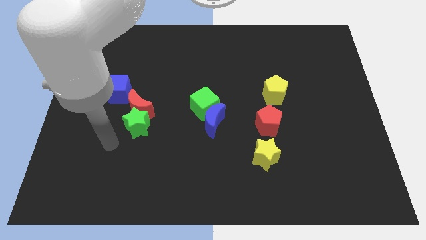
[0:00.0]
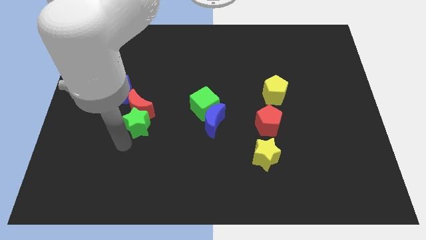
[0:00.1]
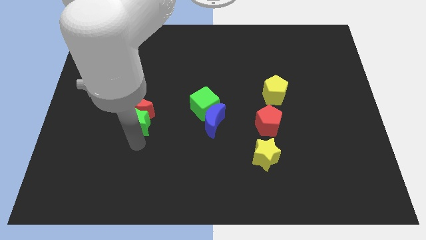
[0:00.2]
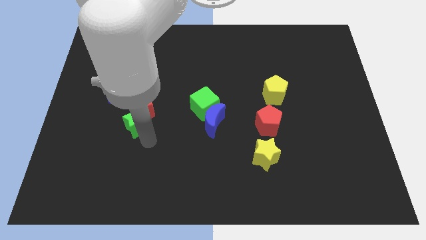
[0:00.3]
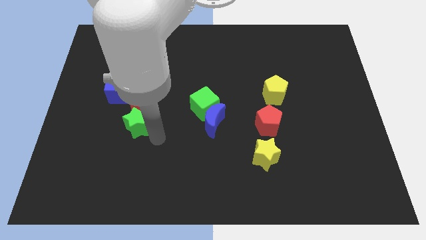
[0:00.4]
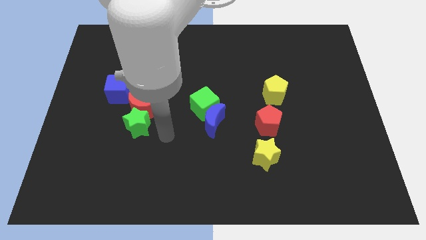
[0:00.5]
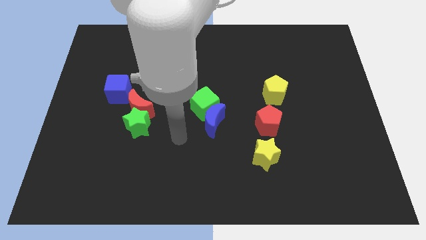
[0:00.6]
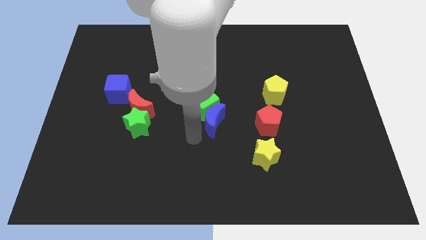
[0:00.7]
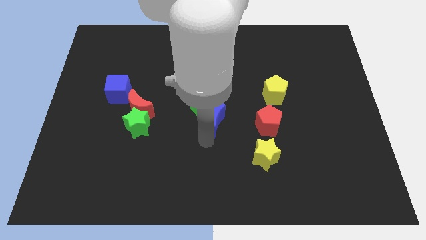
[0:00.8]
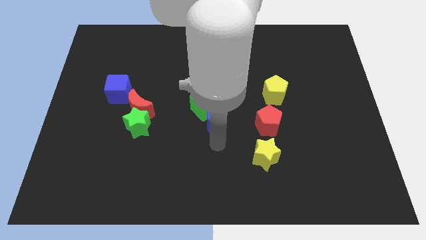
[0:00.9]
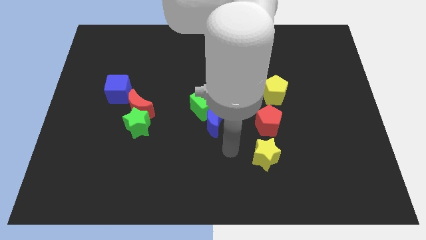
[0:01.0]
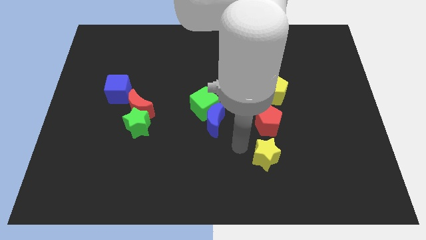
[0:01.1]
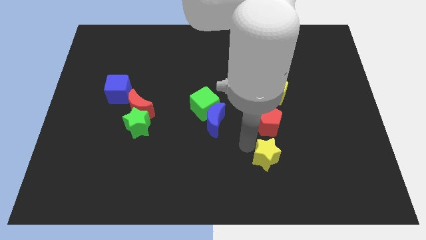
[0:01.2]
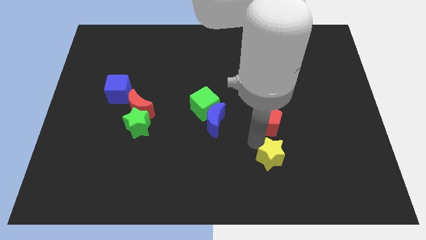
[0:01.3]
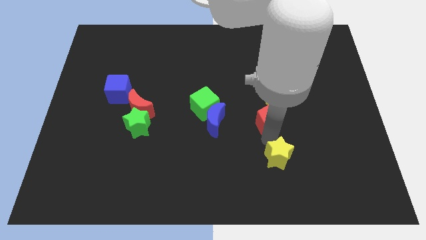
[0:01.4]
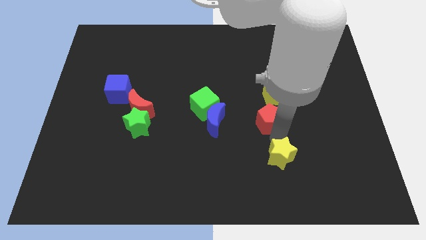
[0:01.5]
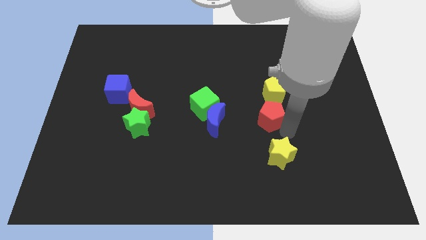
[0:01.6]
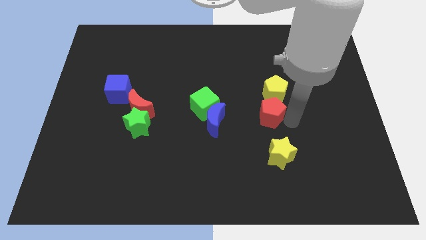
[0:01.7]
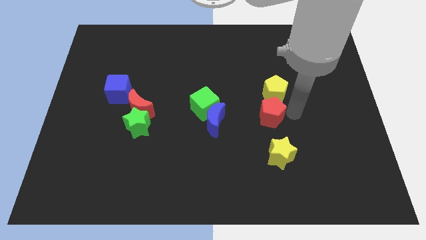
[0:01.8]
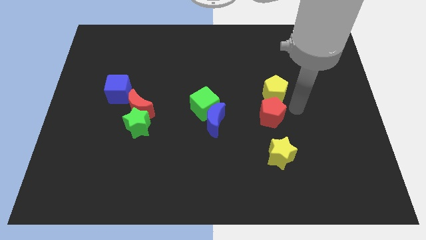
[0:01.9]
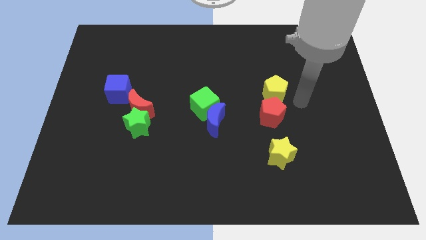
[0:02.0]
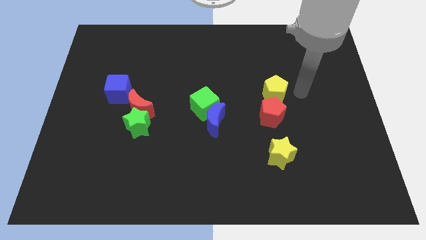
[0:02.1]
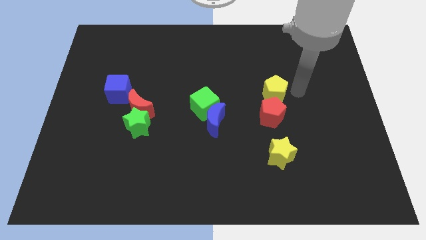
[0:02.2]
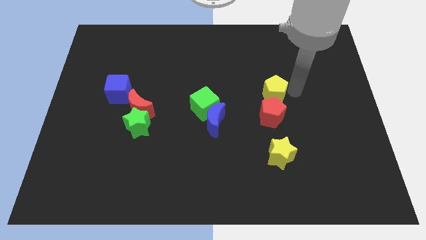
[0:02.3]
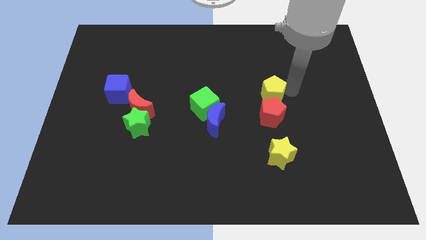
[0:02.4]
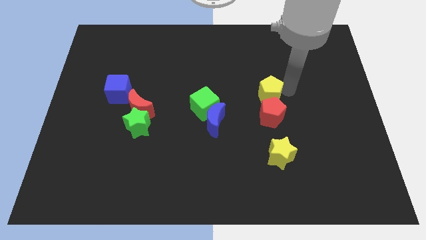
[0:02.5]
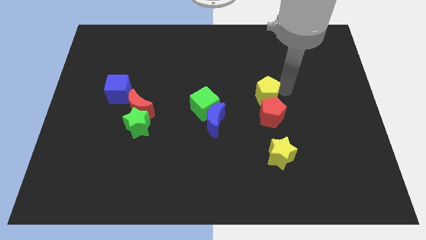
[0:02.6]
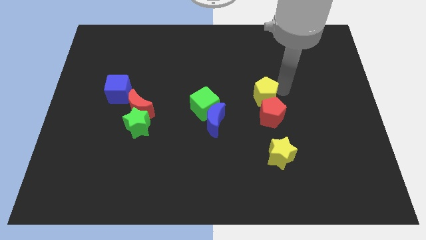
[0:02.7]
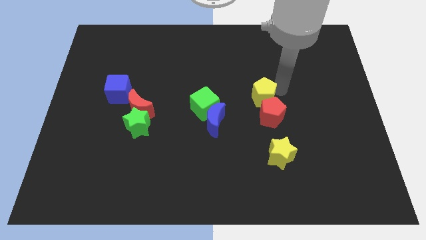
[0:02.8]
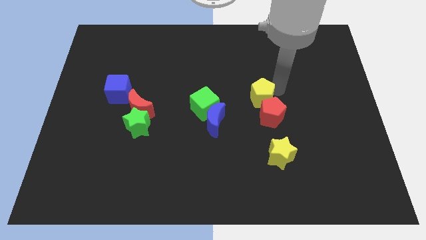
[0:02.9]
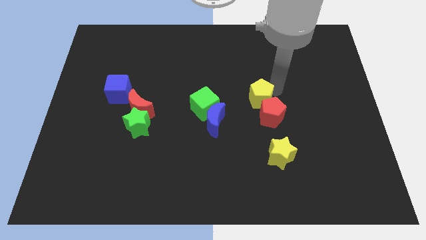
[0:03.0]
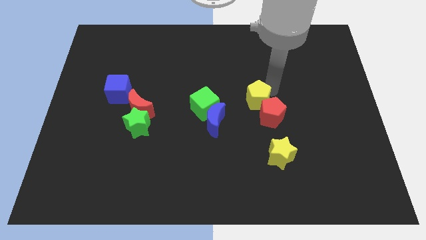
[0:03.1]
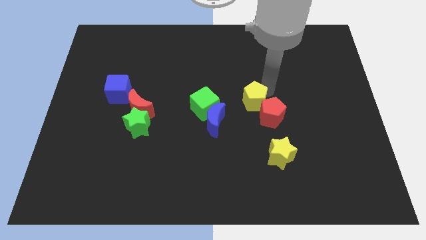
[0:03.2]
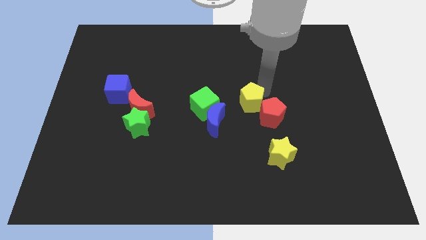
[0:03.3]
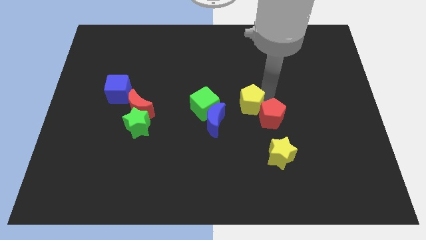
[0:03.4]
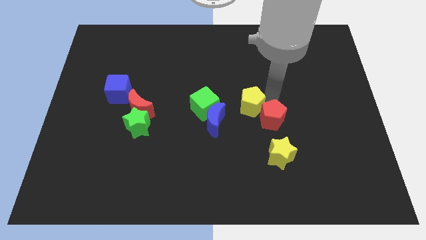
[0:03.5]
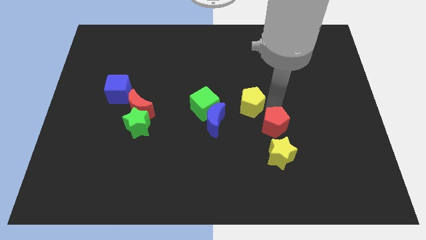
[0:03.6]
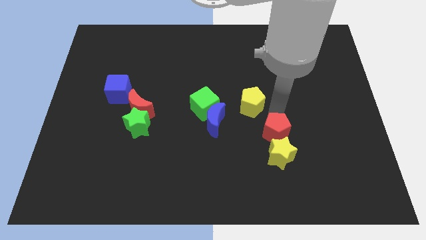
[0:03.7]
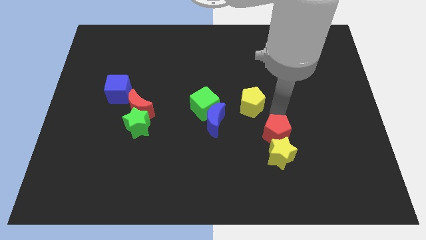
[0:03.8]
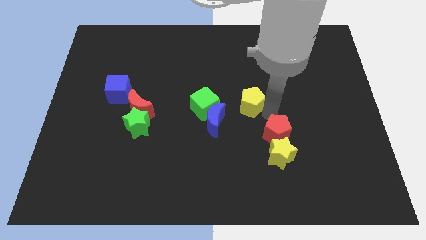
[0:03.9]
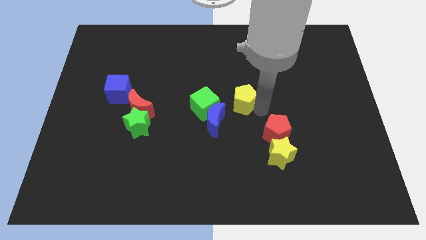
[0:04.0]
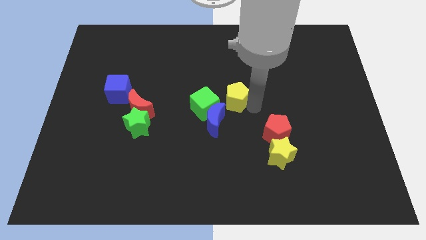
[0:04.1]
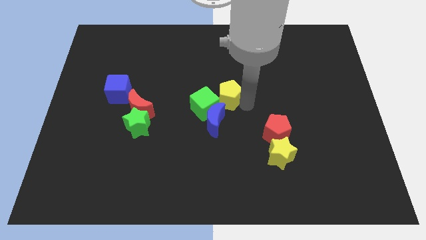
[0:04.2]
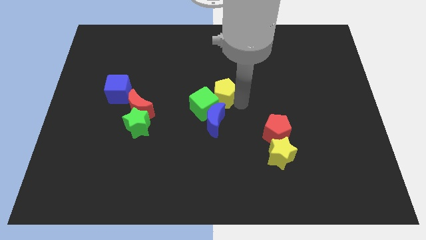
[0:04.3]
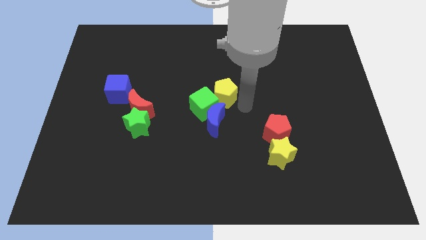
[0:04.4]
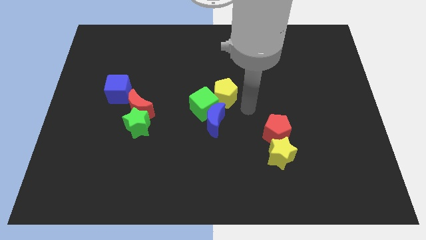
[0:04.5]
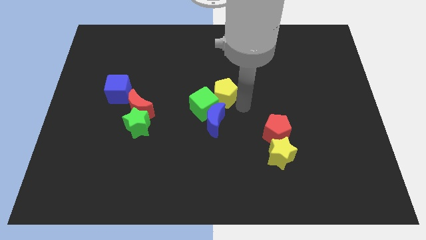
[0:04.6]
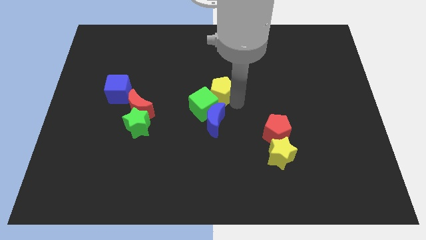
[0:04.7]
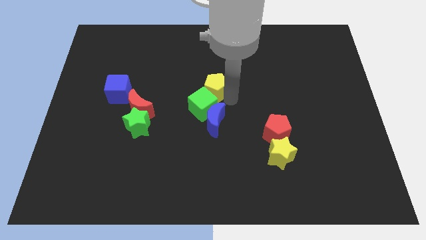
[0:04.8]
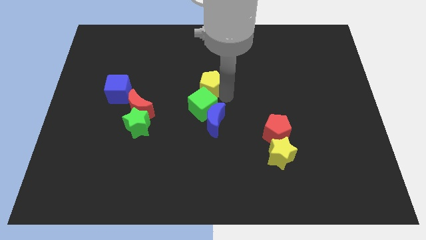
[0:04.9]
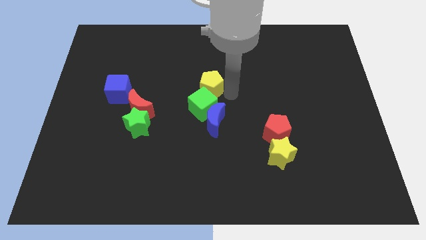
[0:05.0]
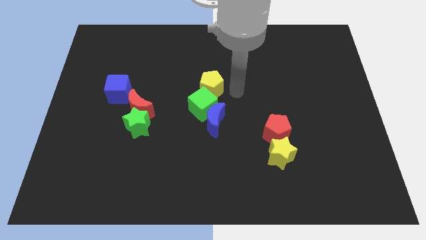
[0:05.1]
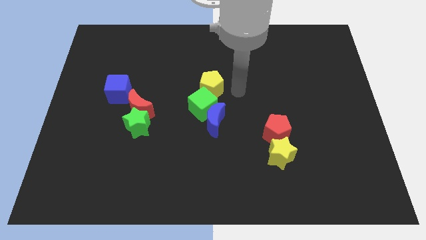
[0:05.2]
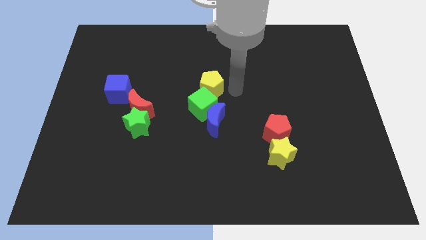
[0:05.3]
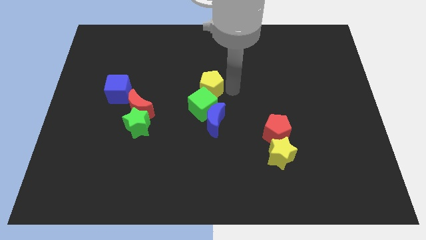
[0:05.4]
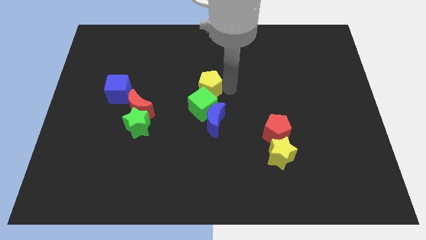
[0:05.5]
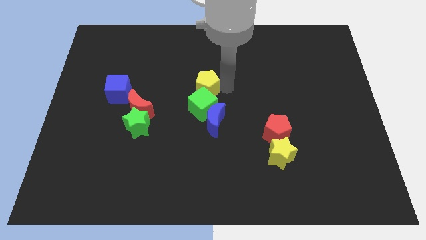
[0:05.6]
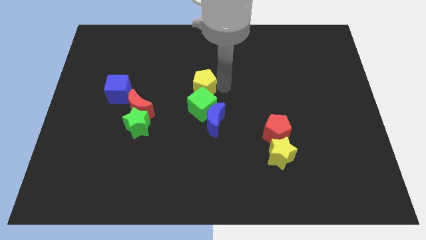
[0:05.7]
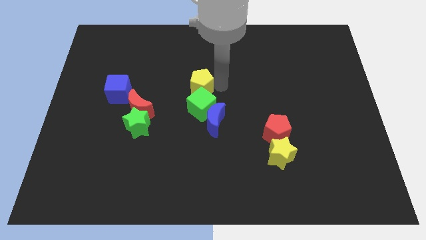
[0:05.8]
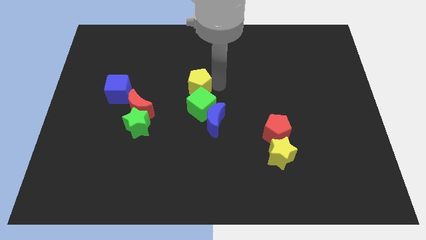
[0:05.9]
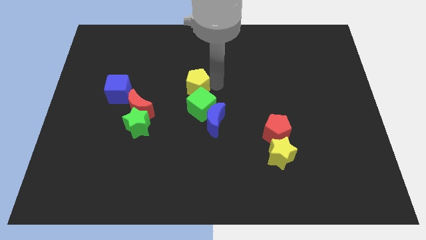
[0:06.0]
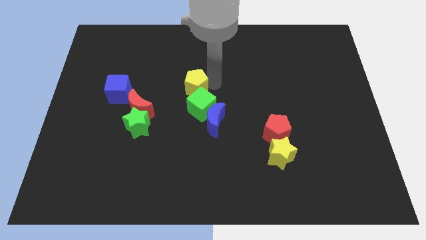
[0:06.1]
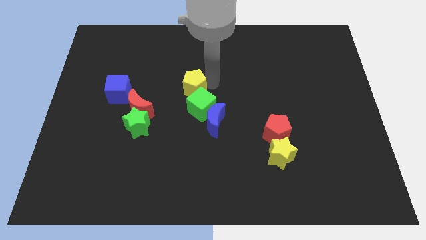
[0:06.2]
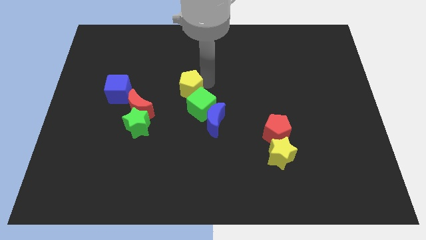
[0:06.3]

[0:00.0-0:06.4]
move the yellow pentagon to the left

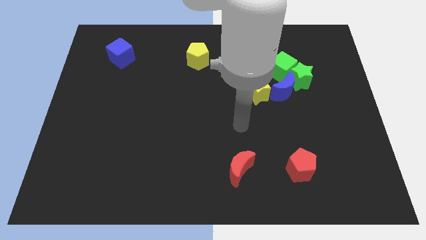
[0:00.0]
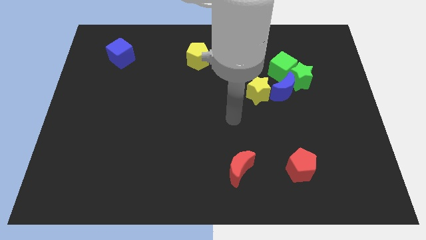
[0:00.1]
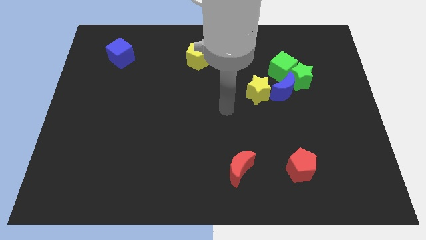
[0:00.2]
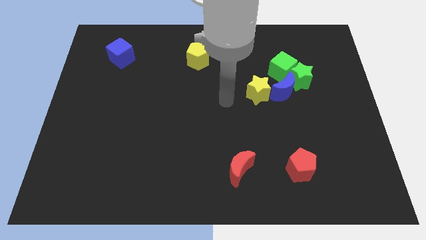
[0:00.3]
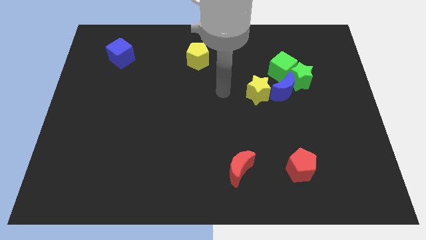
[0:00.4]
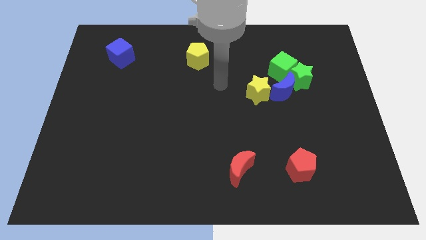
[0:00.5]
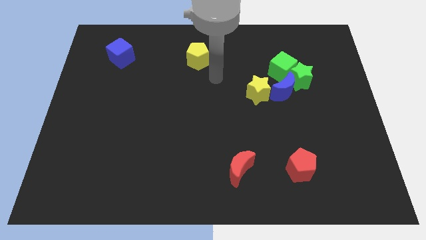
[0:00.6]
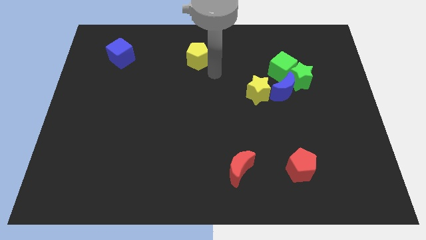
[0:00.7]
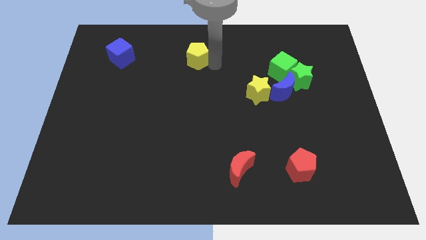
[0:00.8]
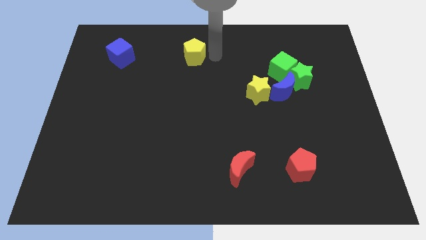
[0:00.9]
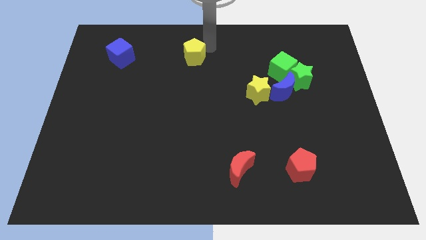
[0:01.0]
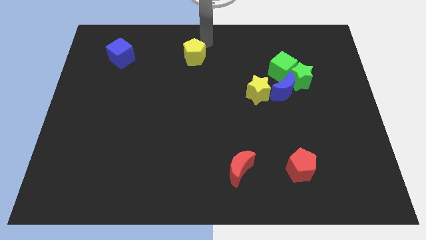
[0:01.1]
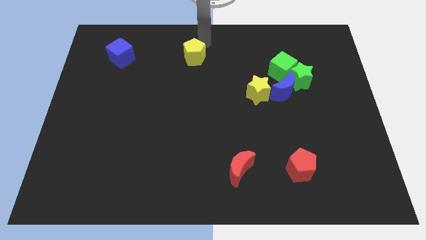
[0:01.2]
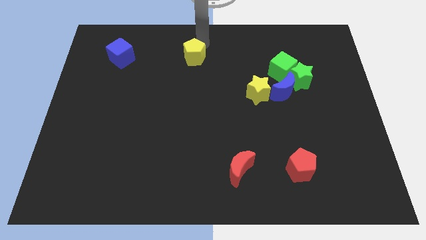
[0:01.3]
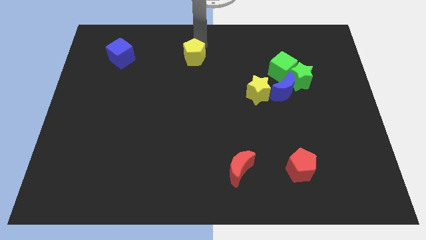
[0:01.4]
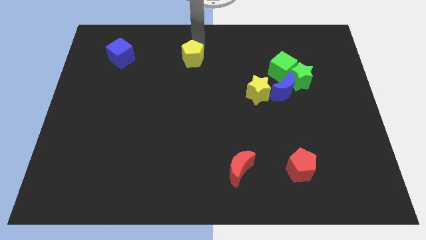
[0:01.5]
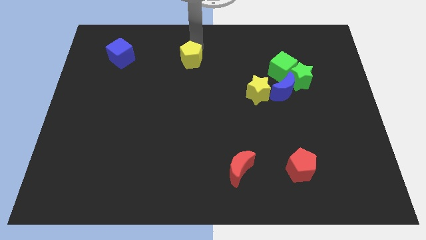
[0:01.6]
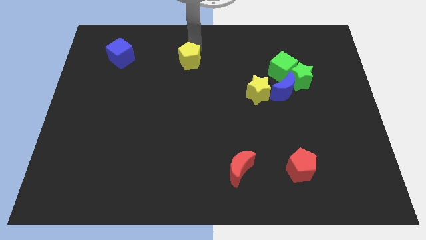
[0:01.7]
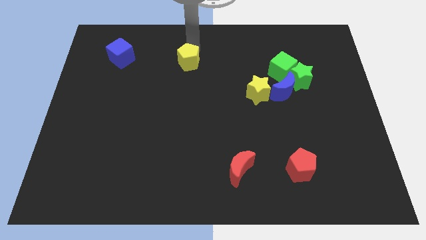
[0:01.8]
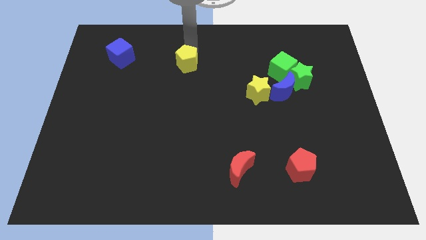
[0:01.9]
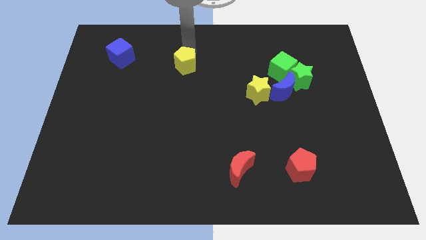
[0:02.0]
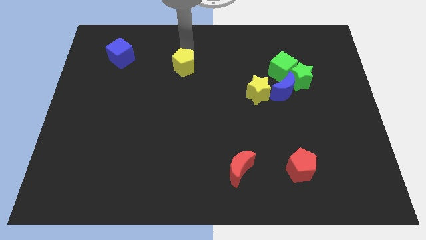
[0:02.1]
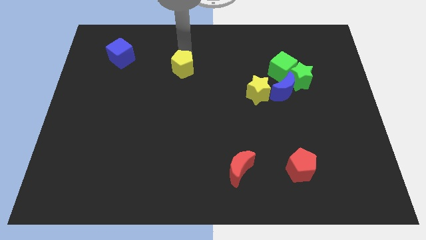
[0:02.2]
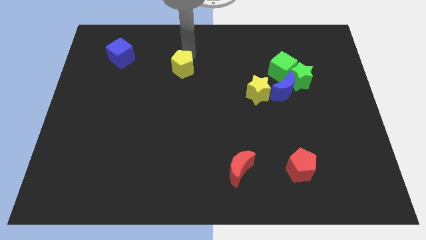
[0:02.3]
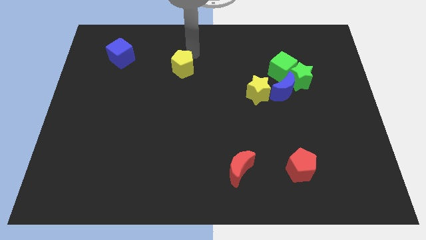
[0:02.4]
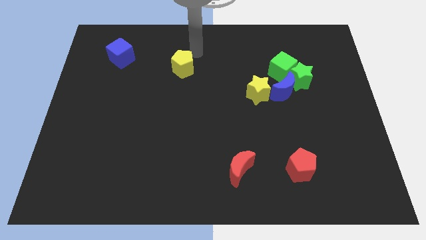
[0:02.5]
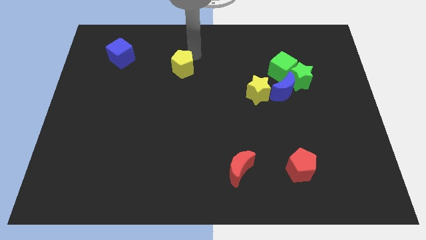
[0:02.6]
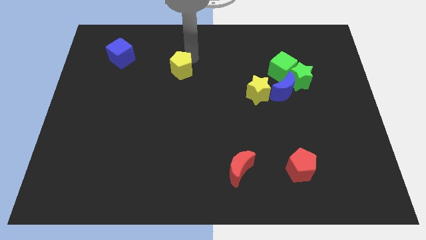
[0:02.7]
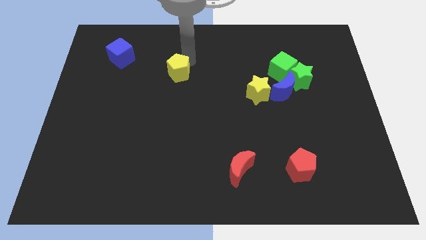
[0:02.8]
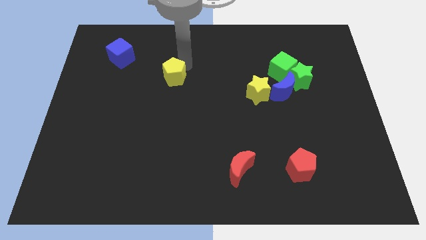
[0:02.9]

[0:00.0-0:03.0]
slide the yellow pentagon a bit downwards and to the left diagonally
